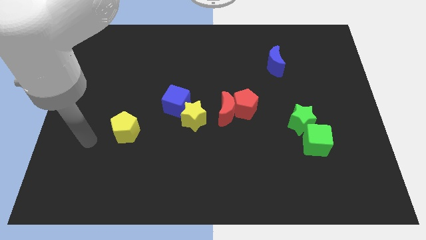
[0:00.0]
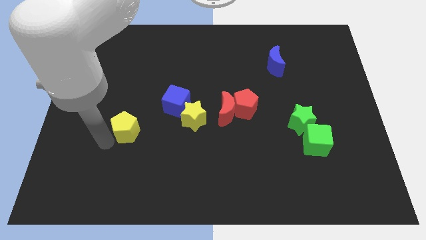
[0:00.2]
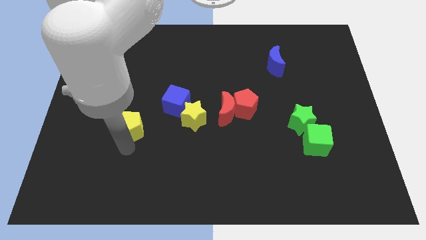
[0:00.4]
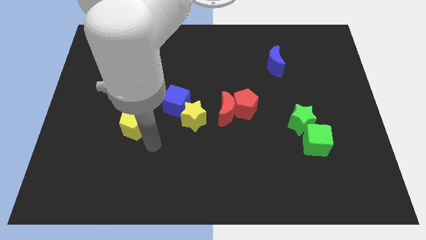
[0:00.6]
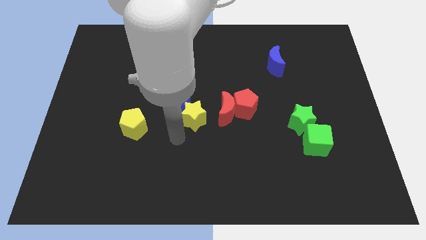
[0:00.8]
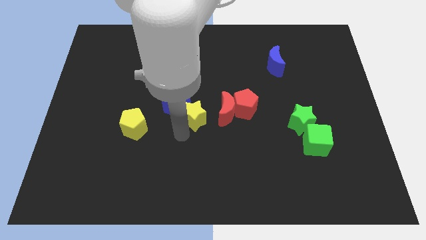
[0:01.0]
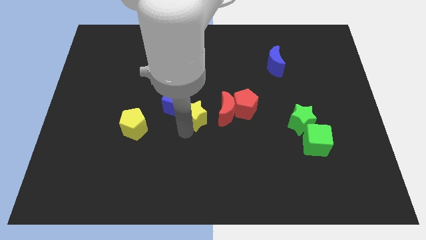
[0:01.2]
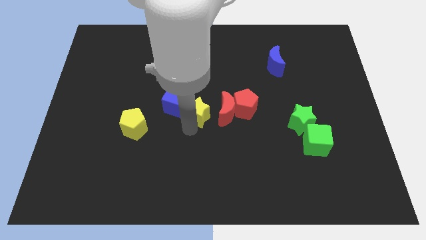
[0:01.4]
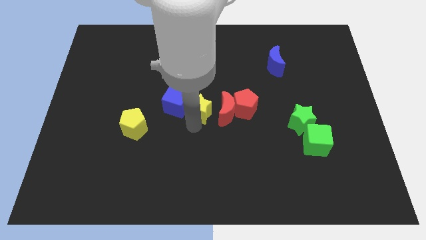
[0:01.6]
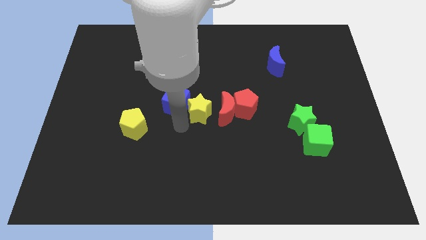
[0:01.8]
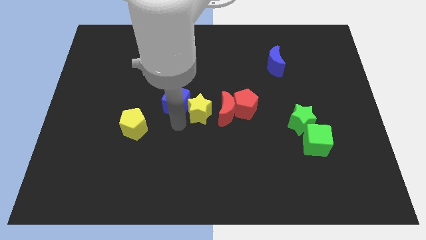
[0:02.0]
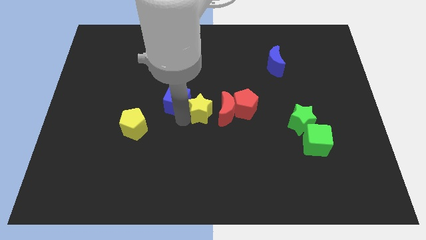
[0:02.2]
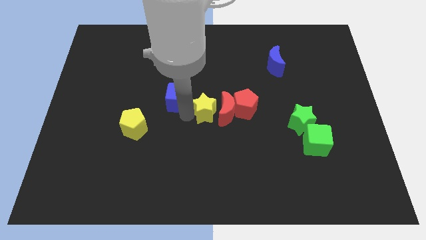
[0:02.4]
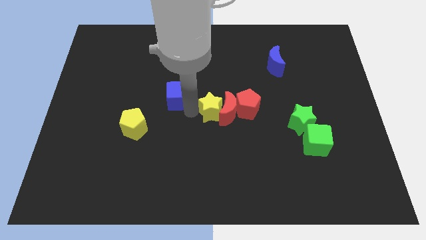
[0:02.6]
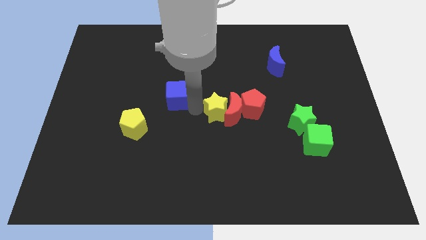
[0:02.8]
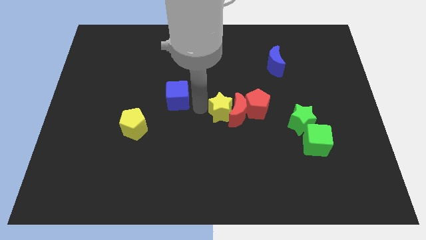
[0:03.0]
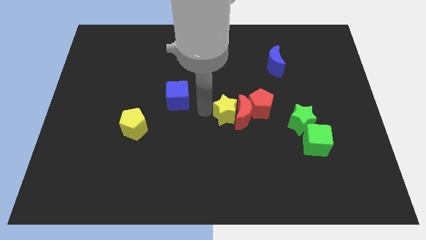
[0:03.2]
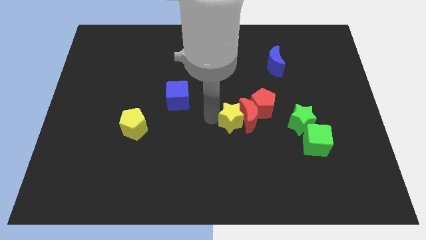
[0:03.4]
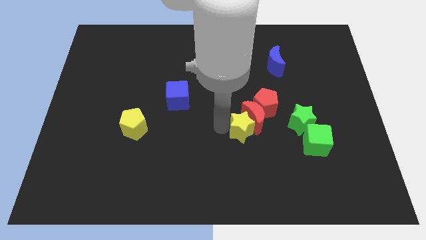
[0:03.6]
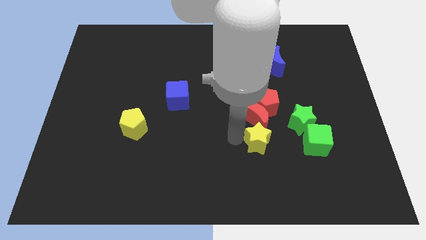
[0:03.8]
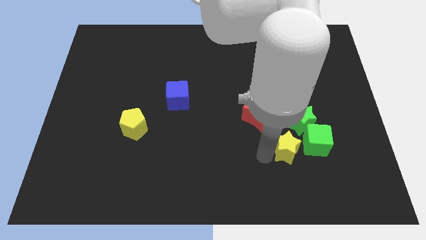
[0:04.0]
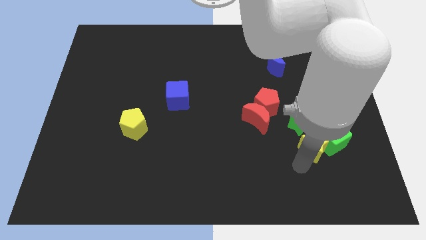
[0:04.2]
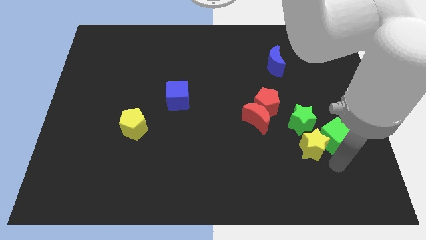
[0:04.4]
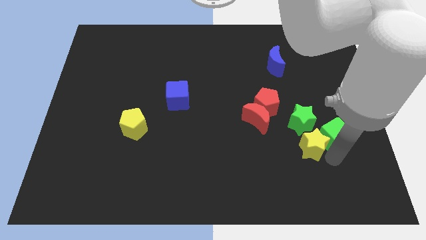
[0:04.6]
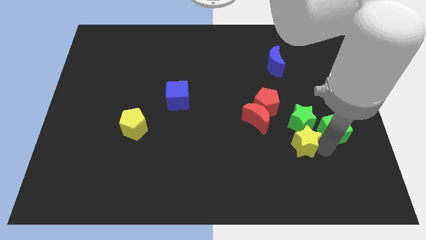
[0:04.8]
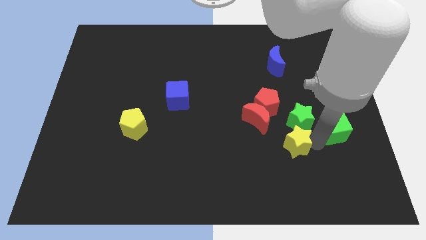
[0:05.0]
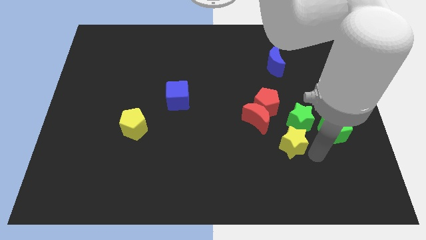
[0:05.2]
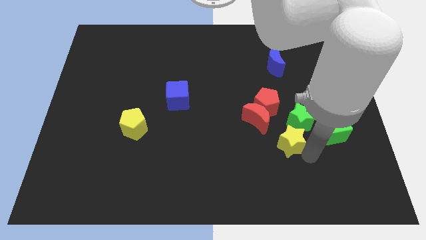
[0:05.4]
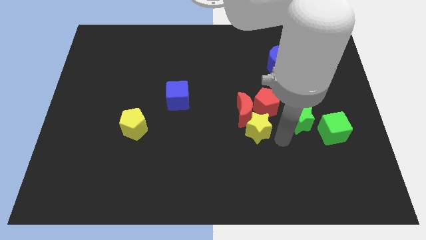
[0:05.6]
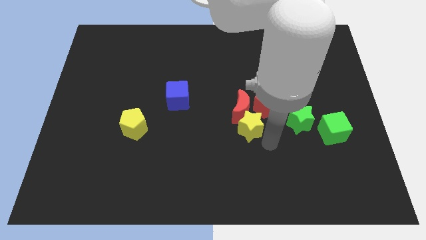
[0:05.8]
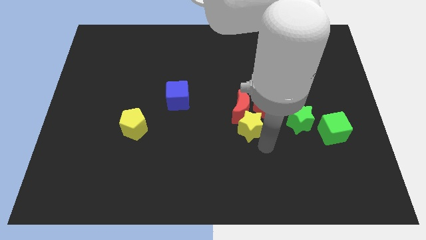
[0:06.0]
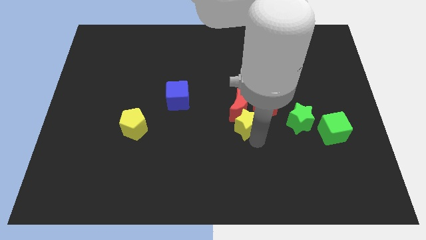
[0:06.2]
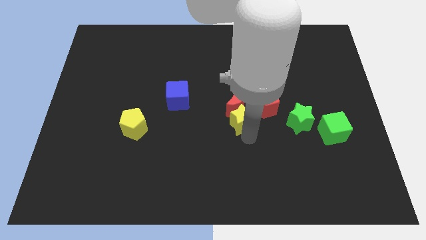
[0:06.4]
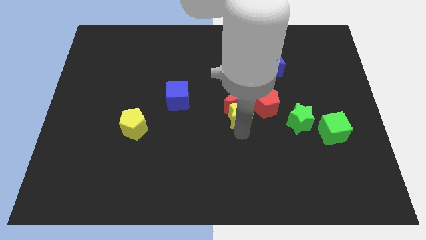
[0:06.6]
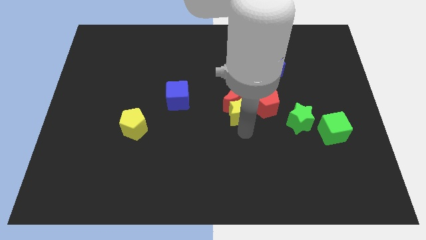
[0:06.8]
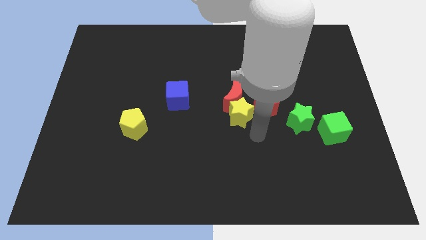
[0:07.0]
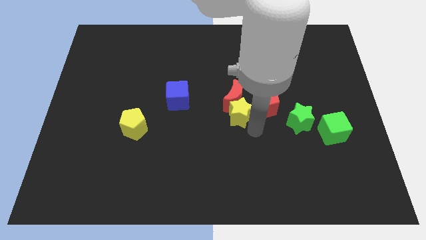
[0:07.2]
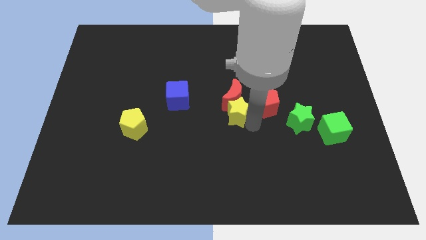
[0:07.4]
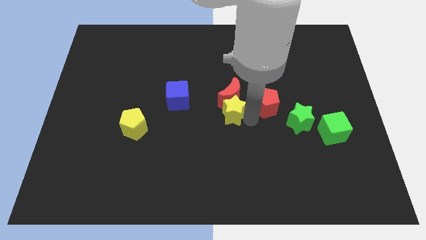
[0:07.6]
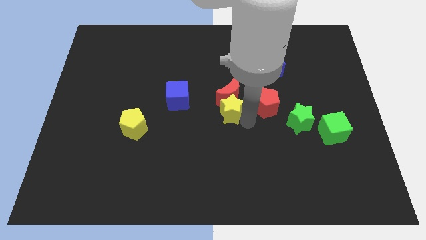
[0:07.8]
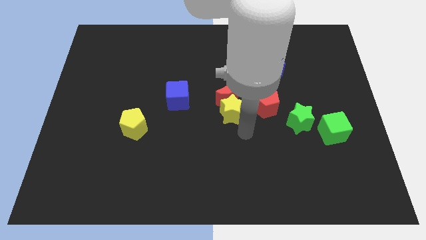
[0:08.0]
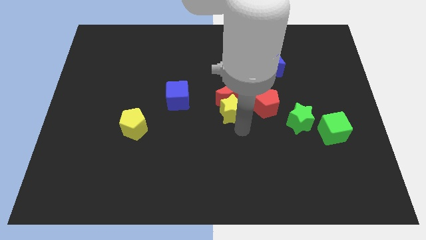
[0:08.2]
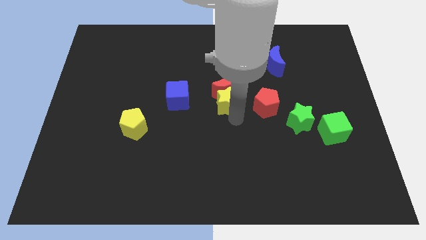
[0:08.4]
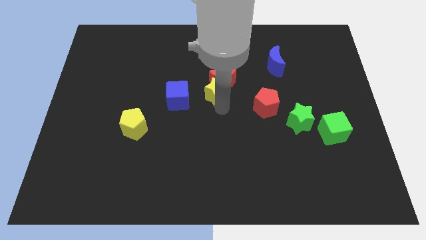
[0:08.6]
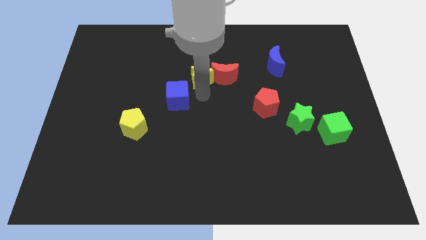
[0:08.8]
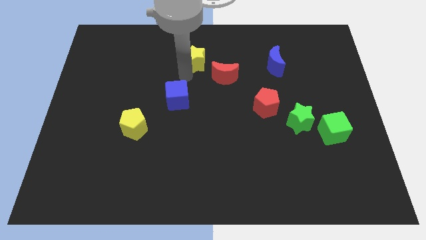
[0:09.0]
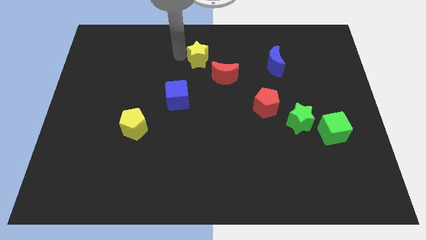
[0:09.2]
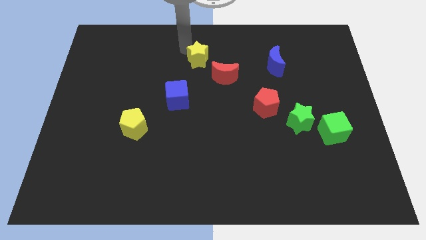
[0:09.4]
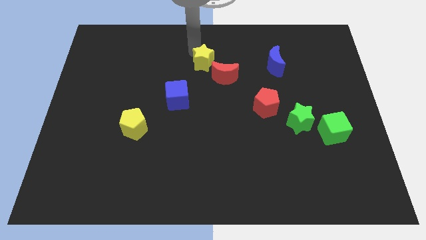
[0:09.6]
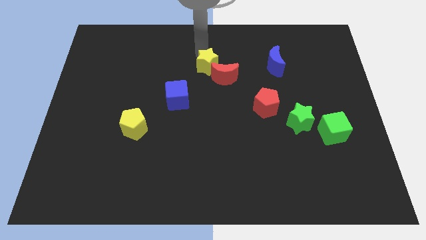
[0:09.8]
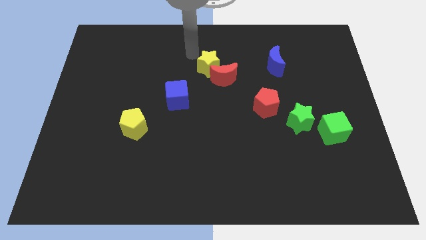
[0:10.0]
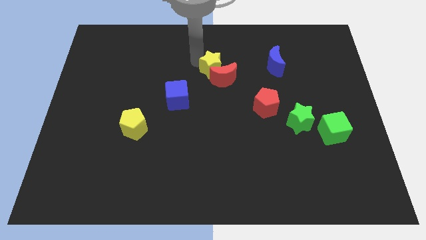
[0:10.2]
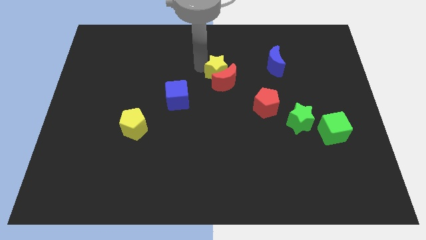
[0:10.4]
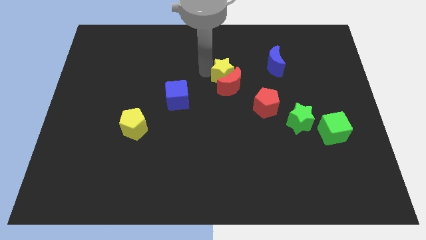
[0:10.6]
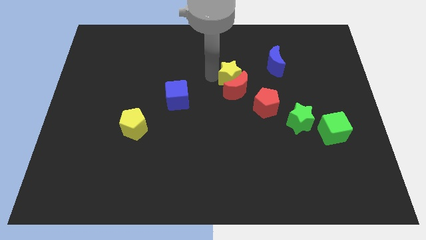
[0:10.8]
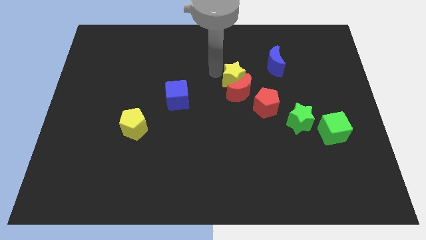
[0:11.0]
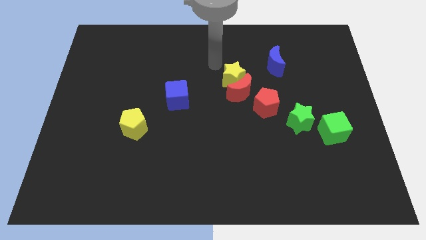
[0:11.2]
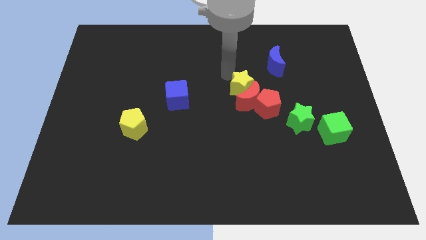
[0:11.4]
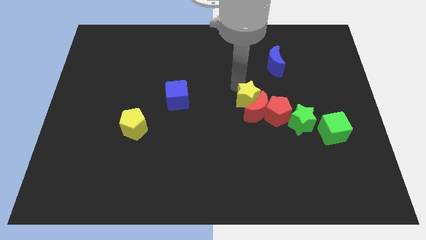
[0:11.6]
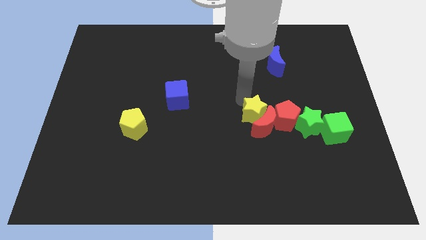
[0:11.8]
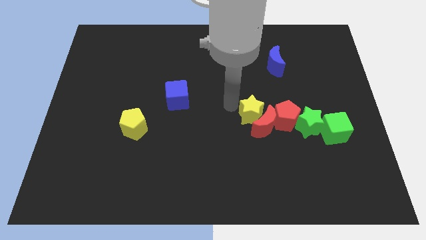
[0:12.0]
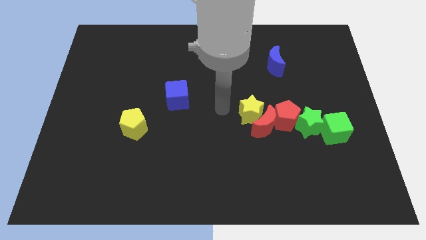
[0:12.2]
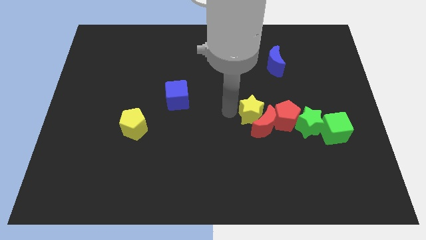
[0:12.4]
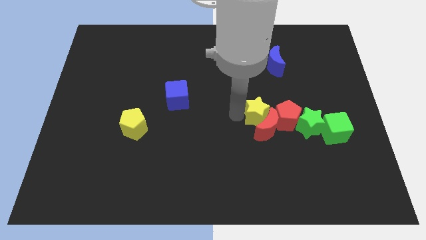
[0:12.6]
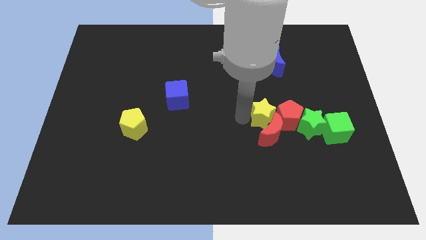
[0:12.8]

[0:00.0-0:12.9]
put the yellow star towards the red pentagon

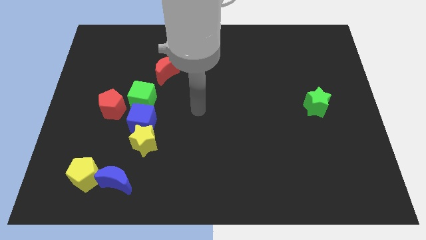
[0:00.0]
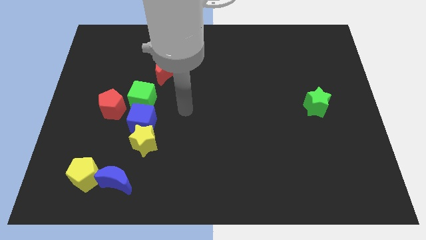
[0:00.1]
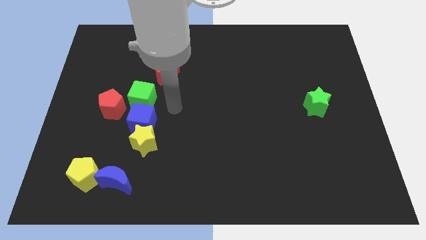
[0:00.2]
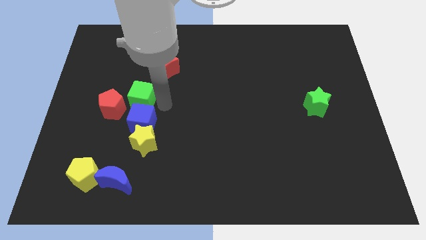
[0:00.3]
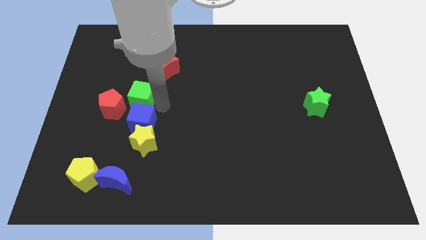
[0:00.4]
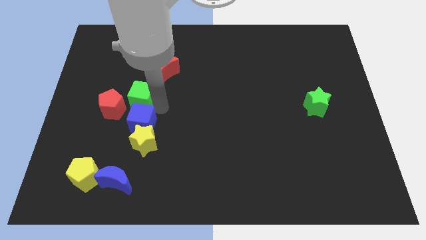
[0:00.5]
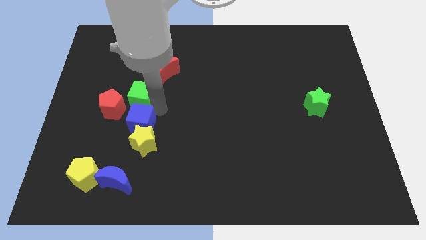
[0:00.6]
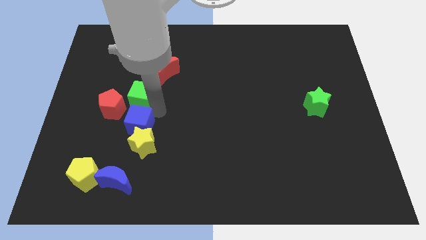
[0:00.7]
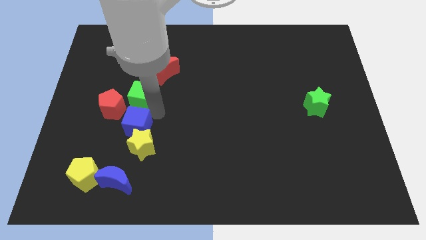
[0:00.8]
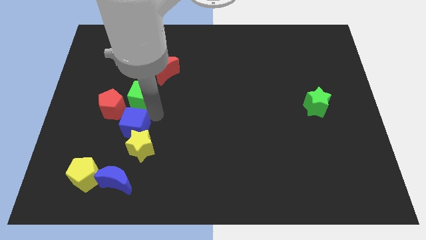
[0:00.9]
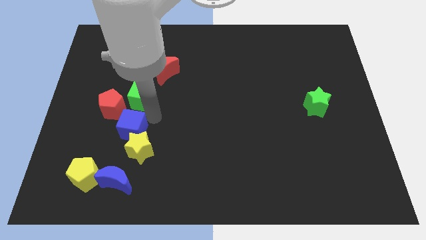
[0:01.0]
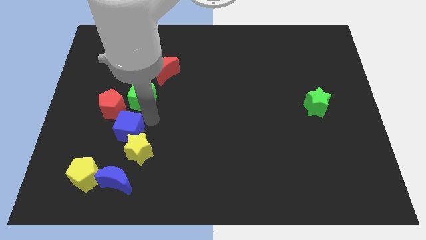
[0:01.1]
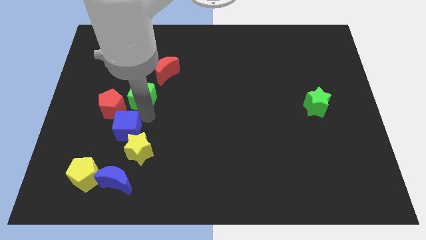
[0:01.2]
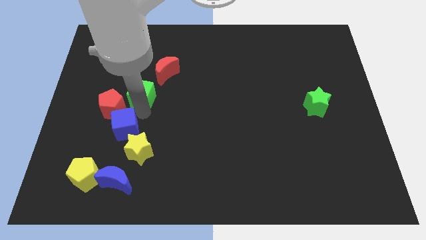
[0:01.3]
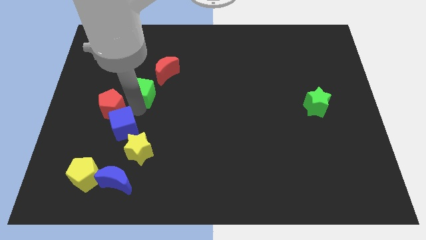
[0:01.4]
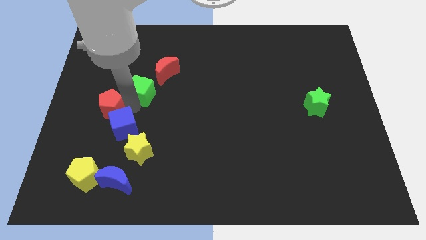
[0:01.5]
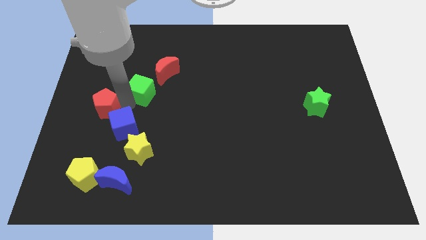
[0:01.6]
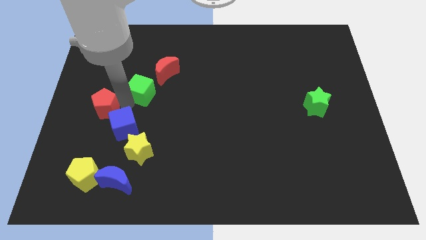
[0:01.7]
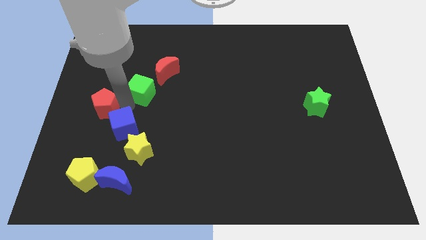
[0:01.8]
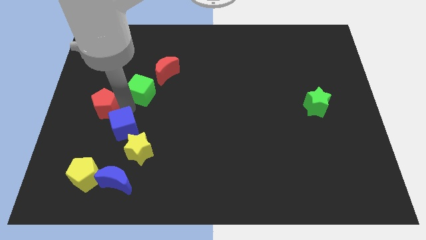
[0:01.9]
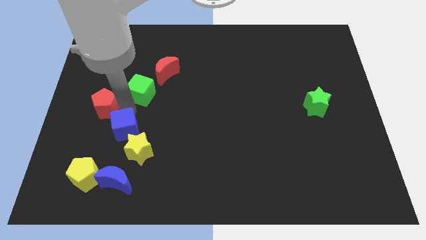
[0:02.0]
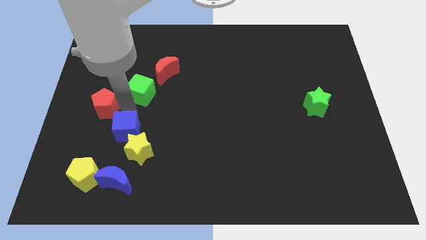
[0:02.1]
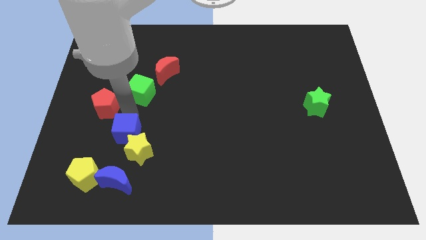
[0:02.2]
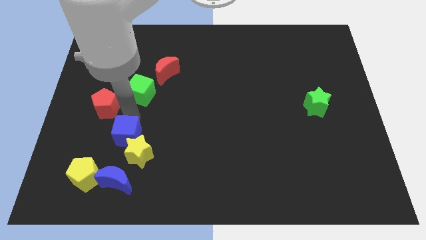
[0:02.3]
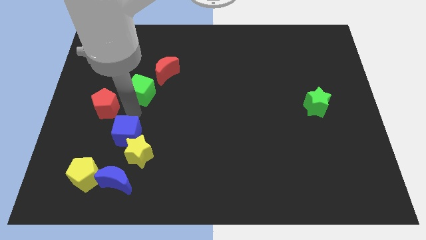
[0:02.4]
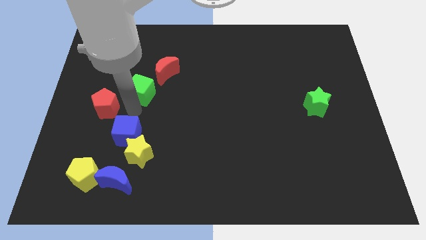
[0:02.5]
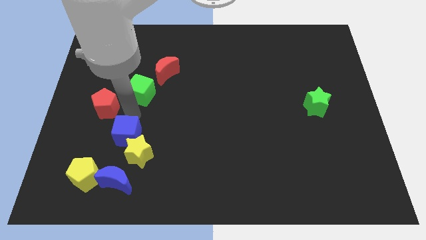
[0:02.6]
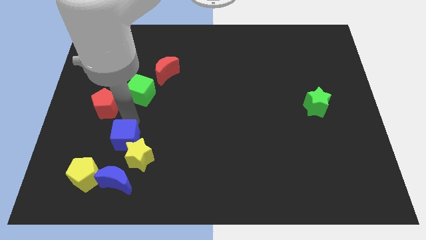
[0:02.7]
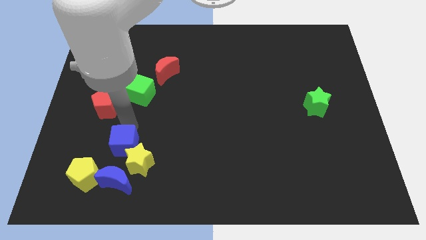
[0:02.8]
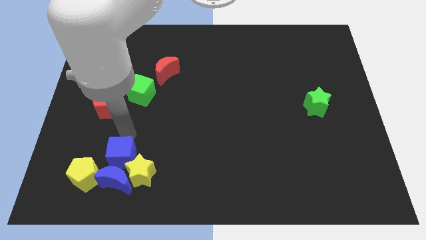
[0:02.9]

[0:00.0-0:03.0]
put the blue cube to the blue moon
